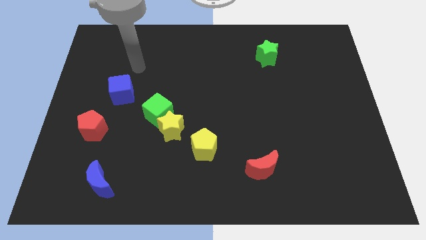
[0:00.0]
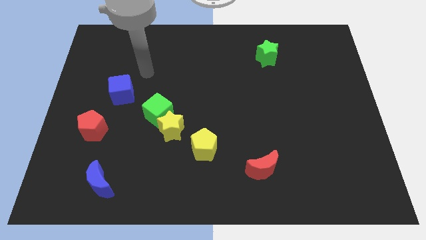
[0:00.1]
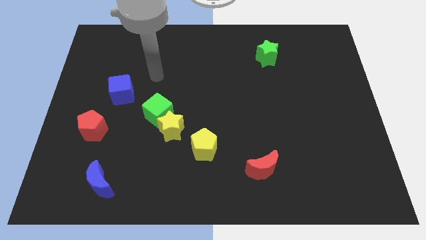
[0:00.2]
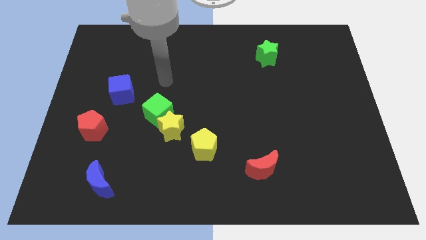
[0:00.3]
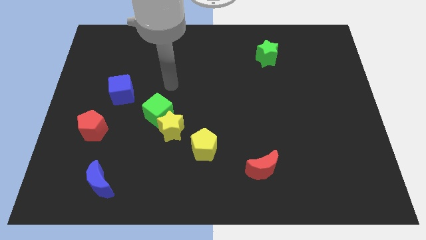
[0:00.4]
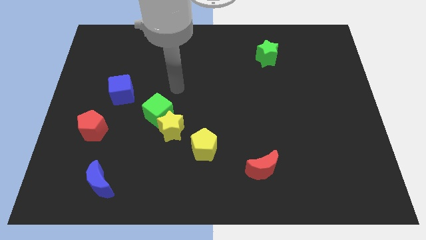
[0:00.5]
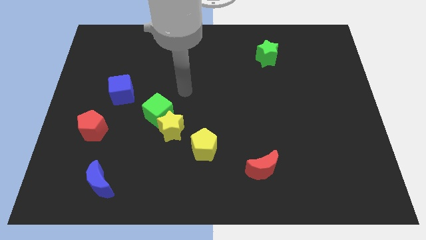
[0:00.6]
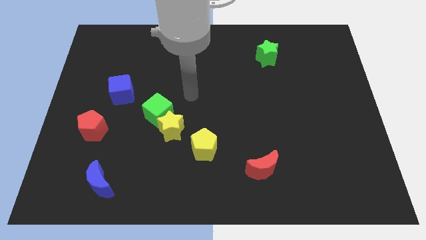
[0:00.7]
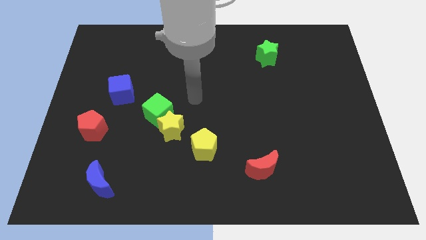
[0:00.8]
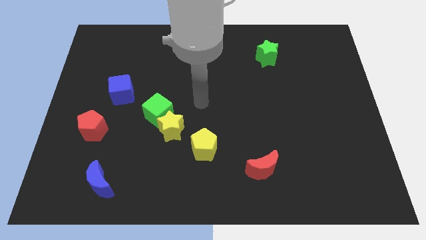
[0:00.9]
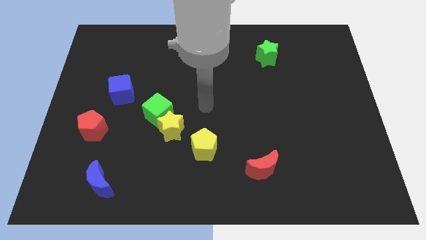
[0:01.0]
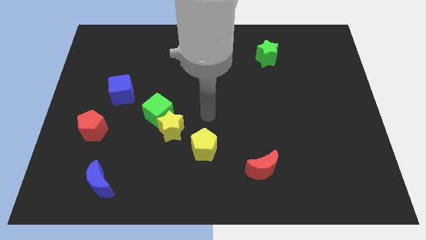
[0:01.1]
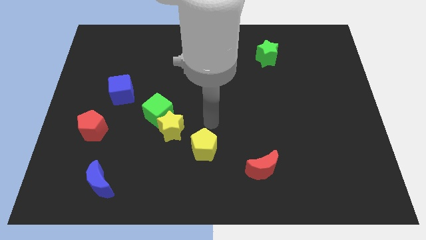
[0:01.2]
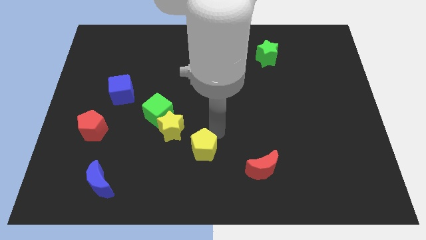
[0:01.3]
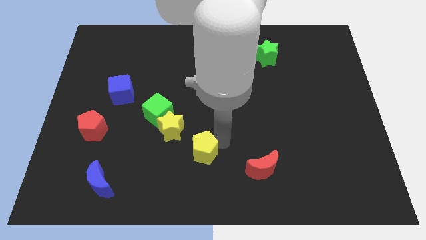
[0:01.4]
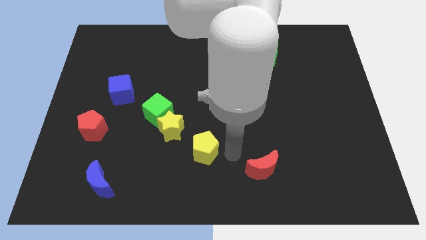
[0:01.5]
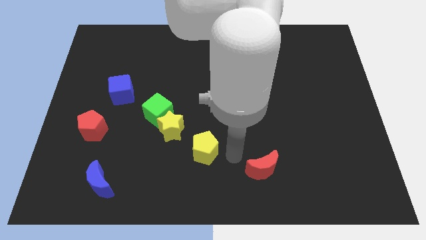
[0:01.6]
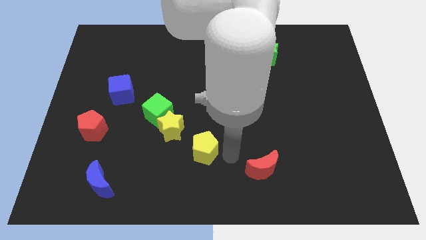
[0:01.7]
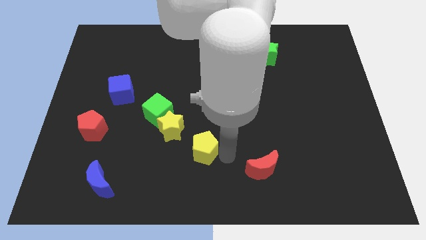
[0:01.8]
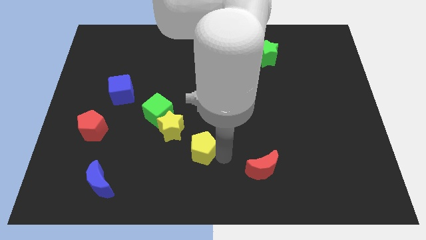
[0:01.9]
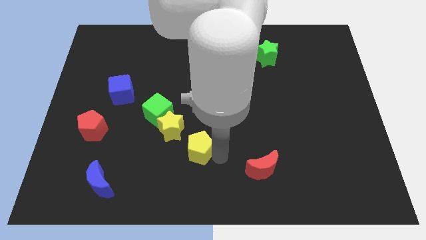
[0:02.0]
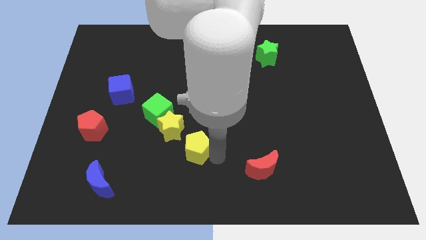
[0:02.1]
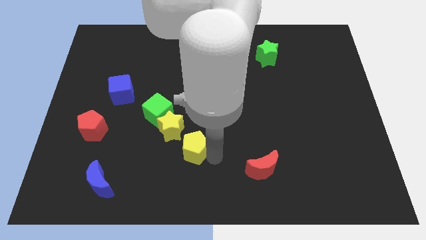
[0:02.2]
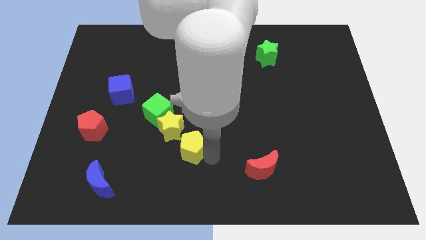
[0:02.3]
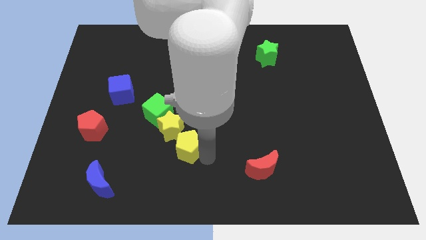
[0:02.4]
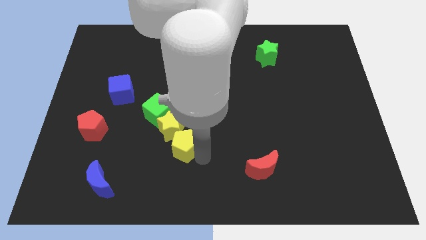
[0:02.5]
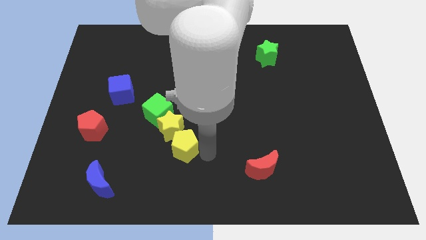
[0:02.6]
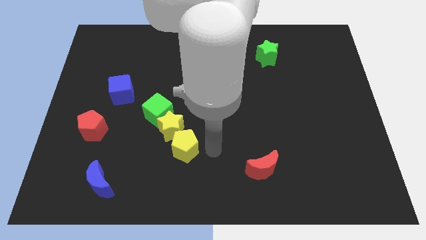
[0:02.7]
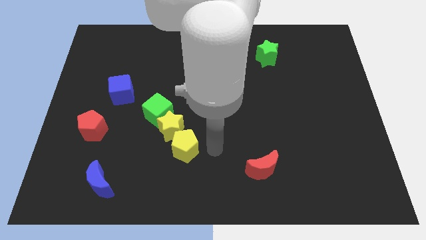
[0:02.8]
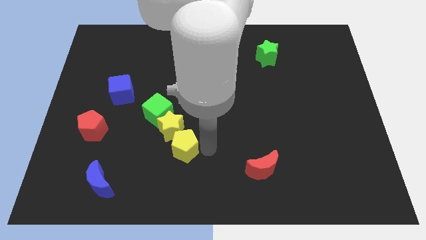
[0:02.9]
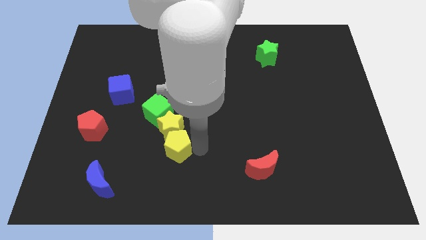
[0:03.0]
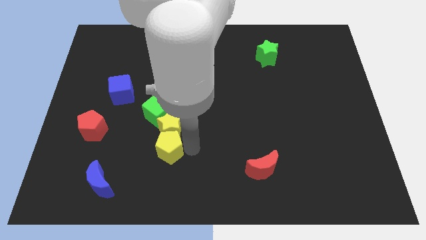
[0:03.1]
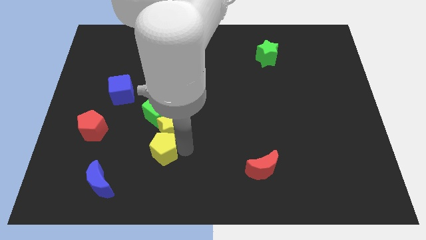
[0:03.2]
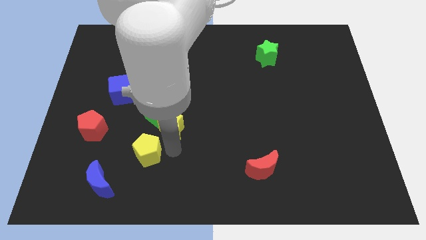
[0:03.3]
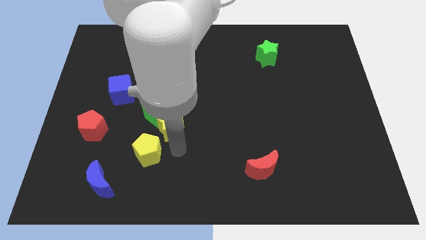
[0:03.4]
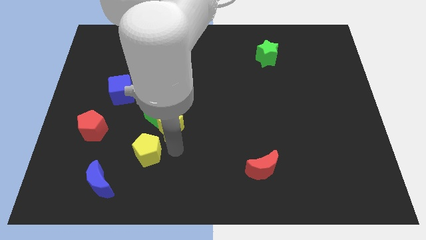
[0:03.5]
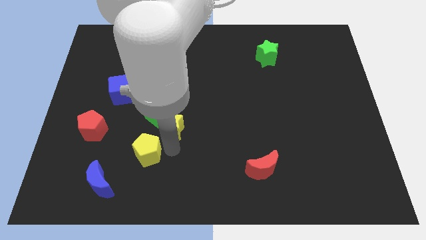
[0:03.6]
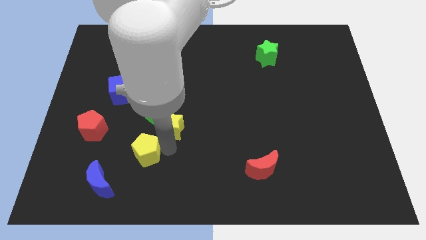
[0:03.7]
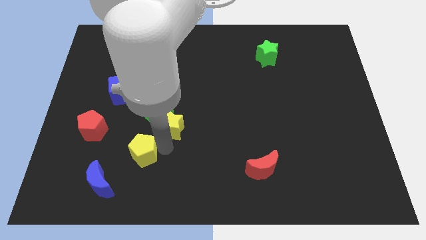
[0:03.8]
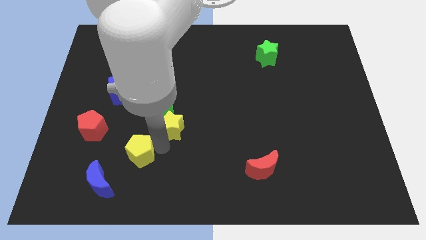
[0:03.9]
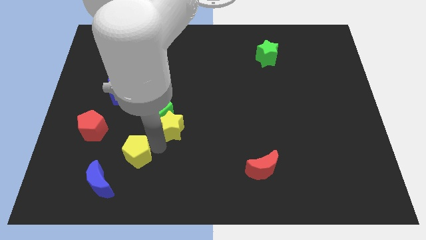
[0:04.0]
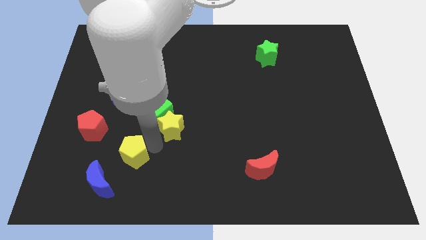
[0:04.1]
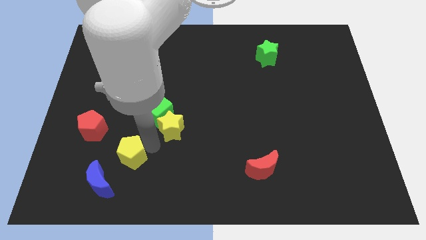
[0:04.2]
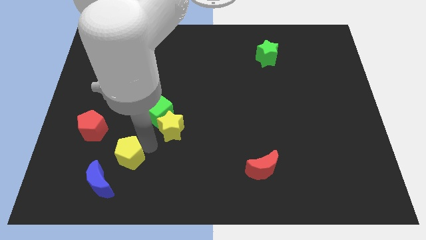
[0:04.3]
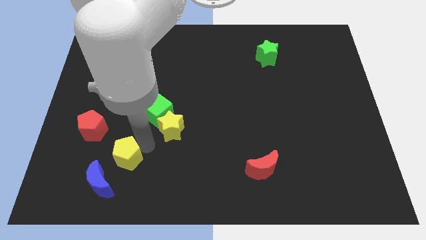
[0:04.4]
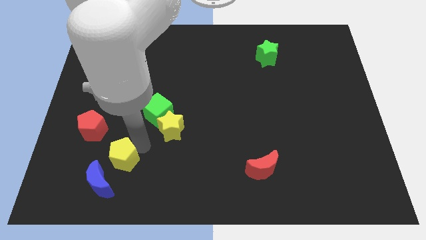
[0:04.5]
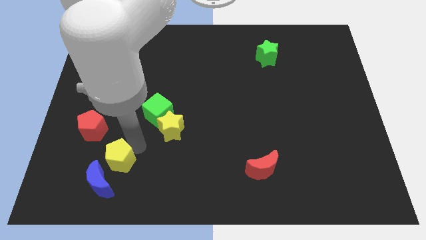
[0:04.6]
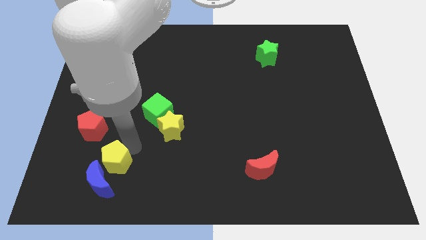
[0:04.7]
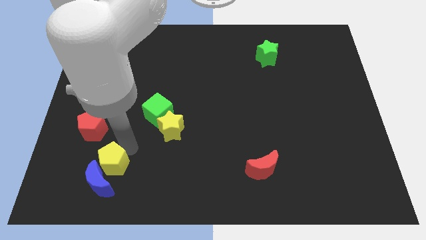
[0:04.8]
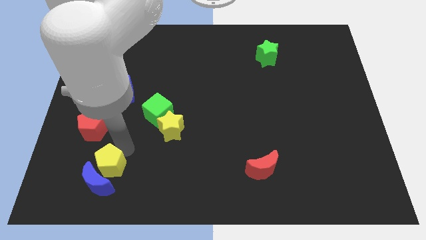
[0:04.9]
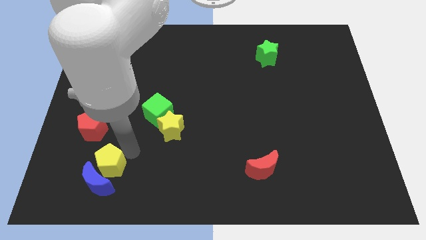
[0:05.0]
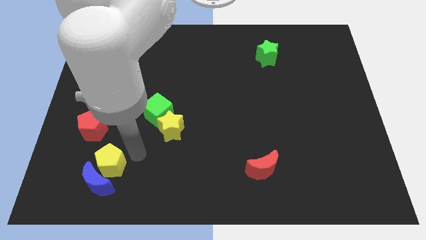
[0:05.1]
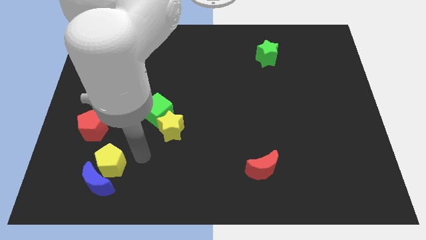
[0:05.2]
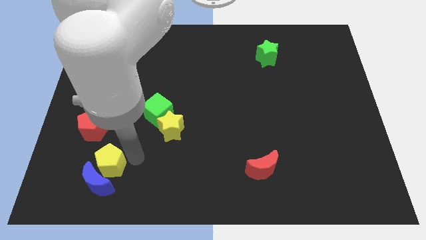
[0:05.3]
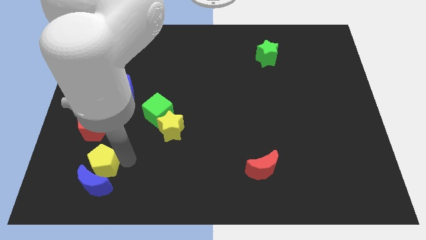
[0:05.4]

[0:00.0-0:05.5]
slide the yellow pentagon below the red pentagon

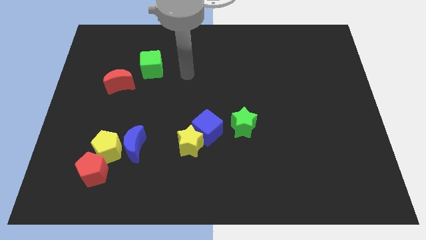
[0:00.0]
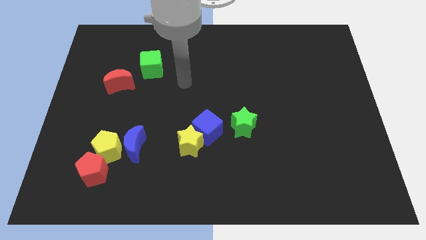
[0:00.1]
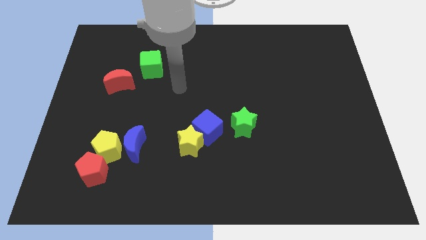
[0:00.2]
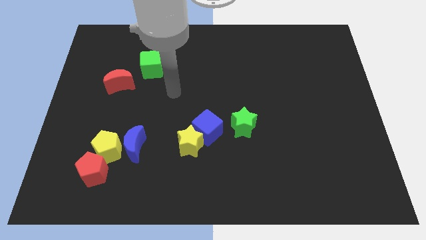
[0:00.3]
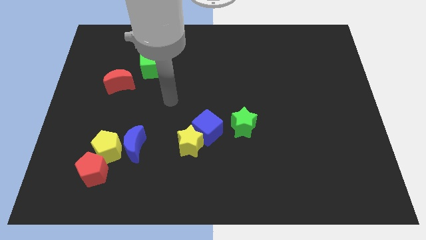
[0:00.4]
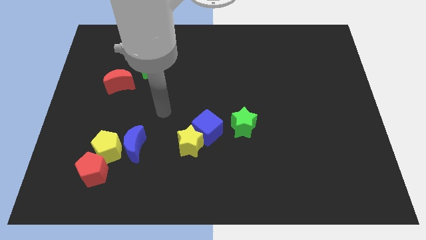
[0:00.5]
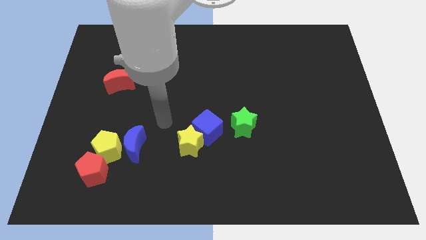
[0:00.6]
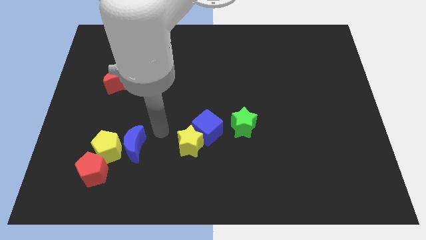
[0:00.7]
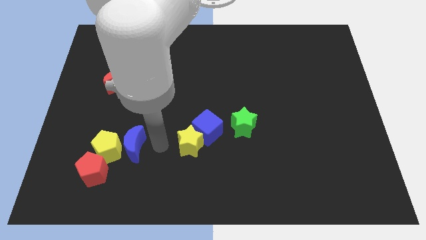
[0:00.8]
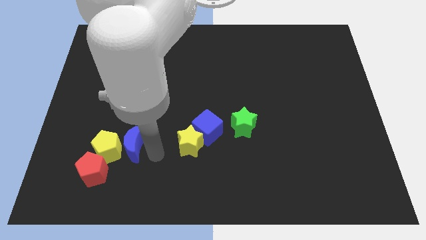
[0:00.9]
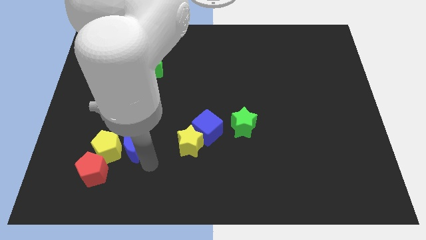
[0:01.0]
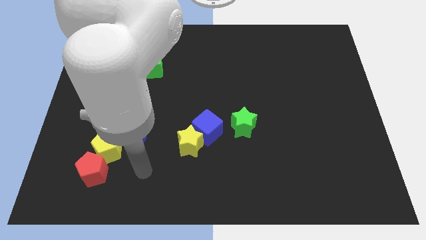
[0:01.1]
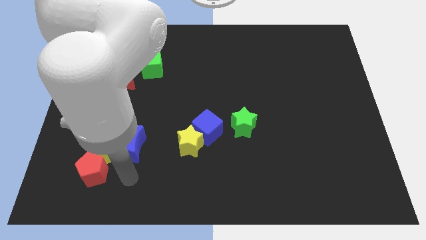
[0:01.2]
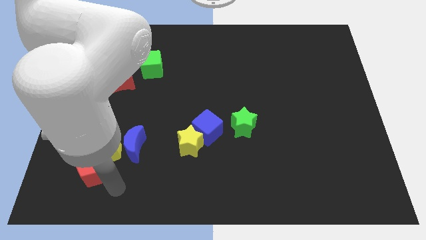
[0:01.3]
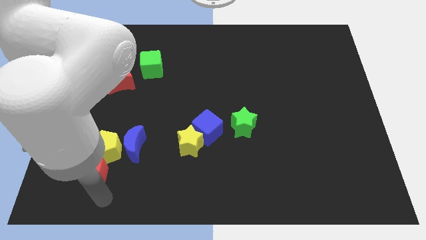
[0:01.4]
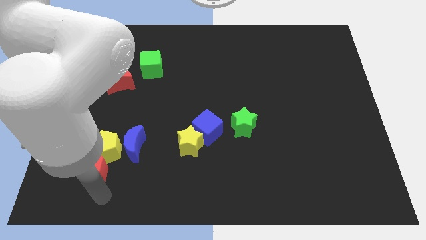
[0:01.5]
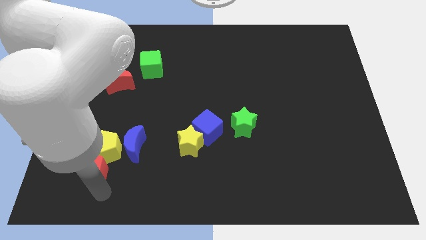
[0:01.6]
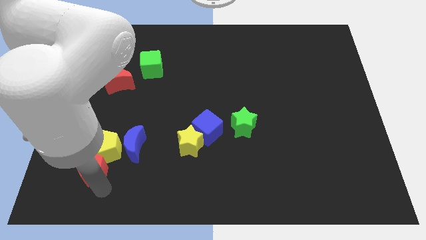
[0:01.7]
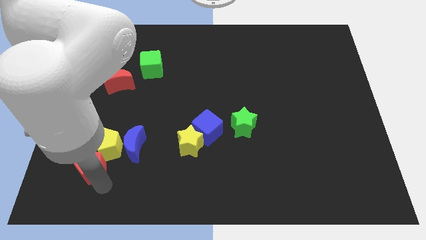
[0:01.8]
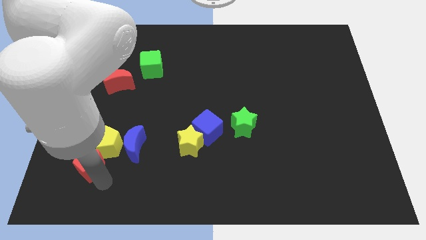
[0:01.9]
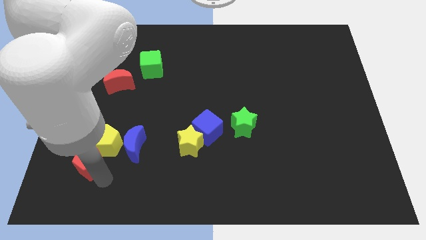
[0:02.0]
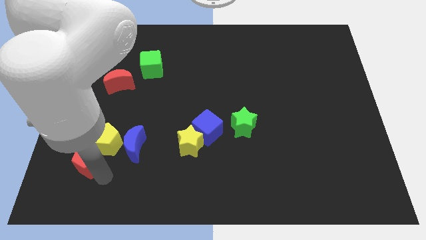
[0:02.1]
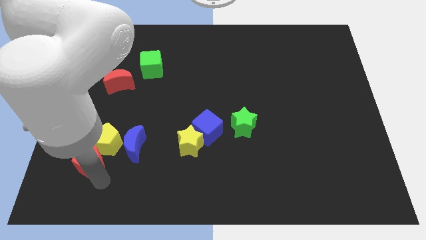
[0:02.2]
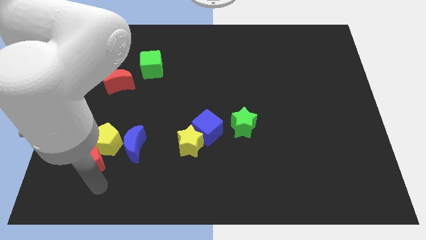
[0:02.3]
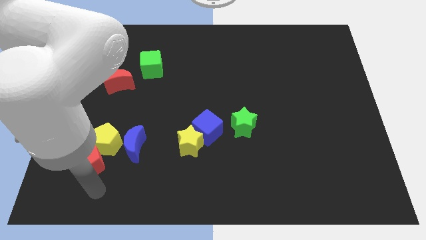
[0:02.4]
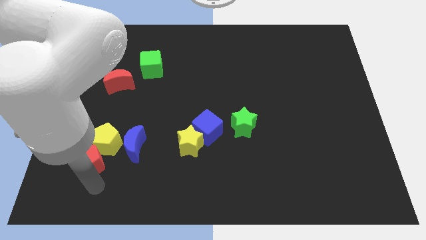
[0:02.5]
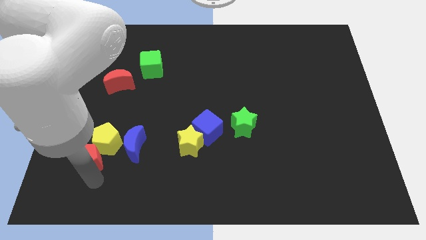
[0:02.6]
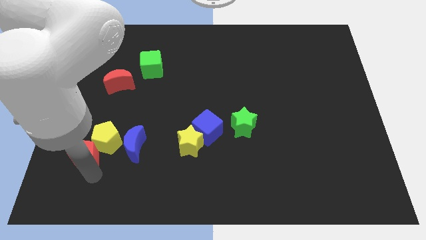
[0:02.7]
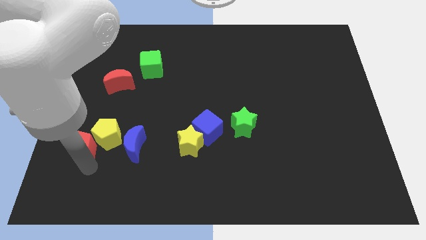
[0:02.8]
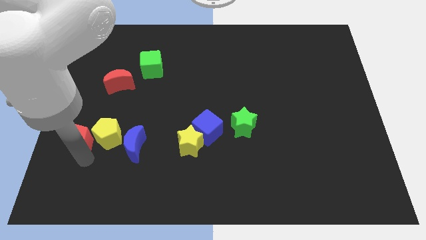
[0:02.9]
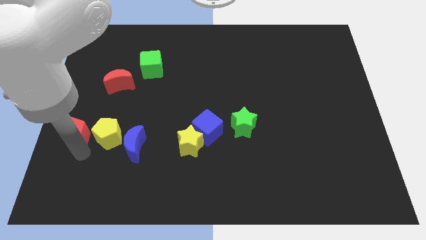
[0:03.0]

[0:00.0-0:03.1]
push the red pentagon diagonally up and to the left of the yellow pentagon
